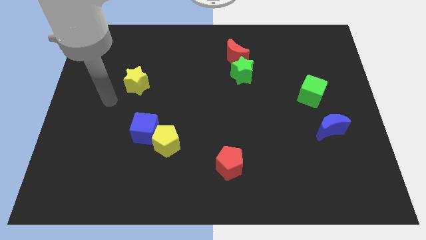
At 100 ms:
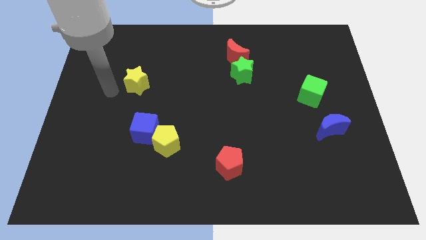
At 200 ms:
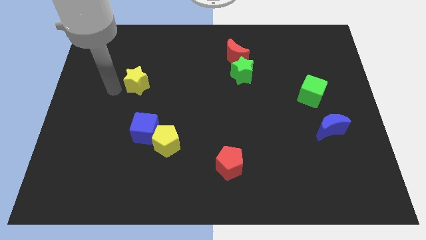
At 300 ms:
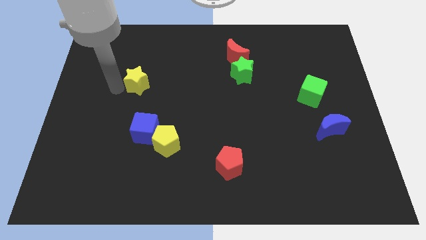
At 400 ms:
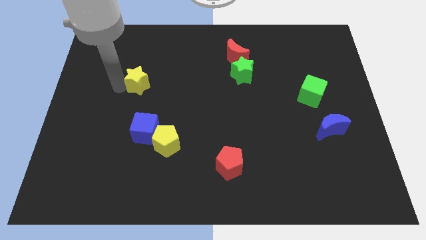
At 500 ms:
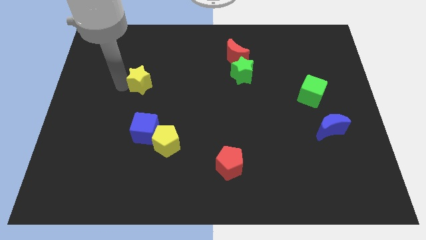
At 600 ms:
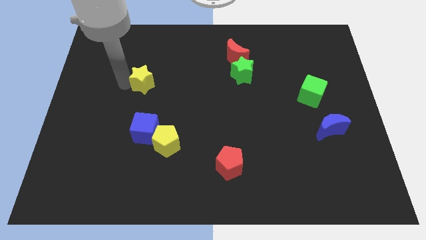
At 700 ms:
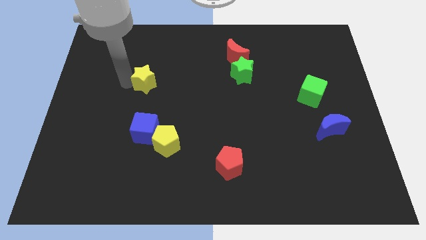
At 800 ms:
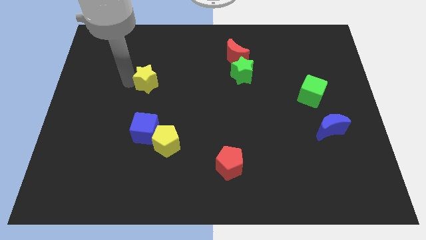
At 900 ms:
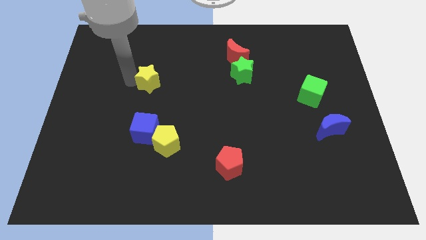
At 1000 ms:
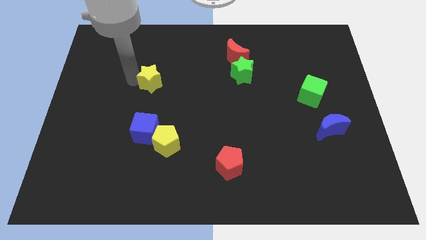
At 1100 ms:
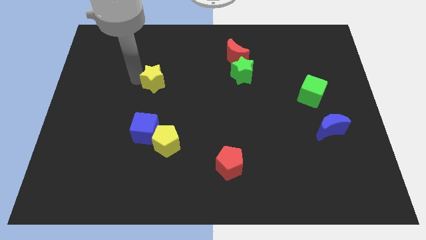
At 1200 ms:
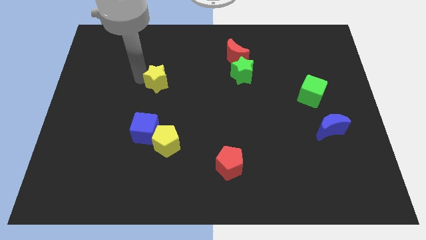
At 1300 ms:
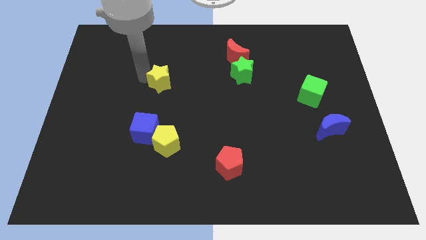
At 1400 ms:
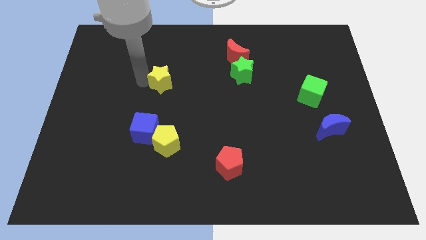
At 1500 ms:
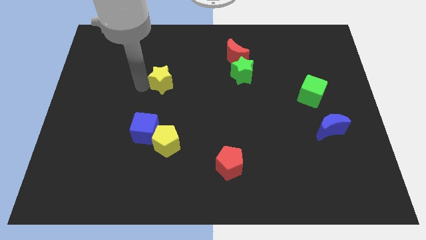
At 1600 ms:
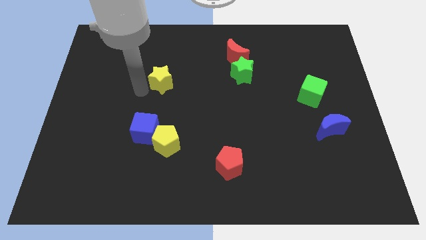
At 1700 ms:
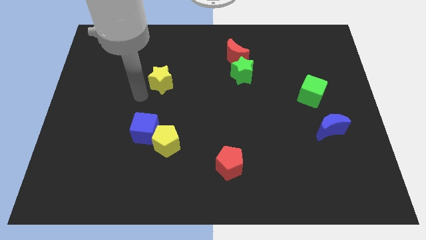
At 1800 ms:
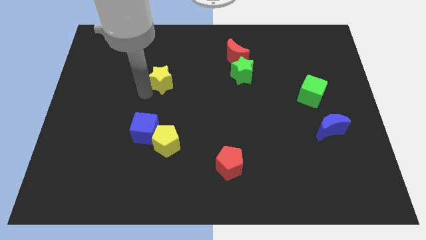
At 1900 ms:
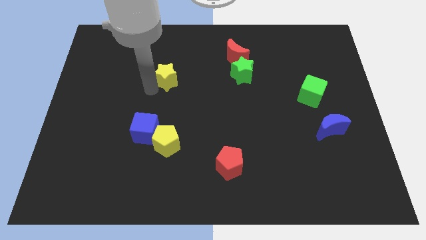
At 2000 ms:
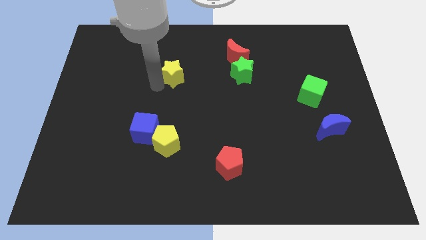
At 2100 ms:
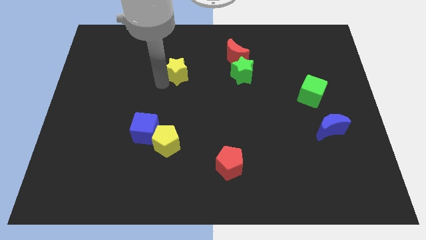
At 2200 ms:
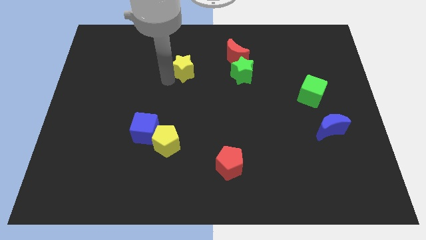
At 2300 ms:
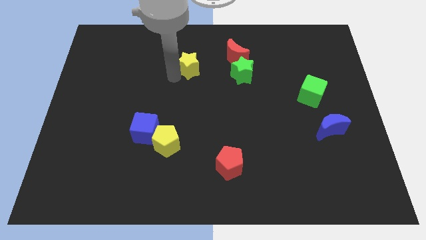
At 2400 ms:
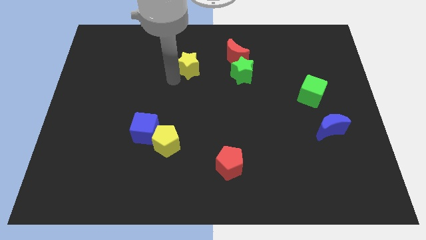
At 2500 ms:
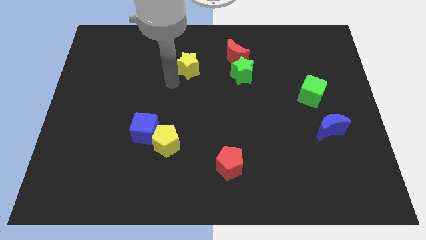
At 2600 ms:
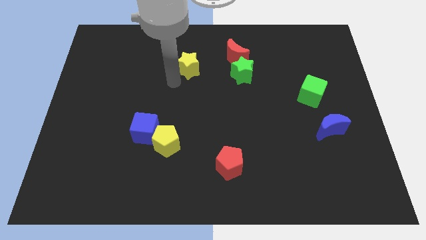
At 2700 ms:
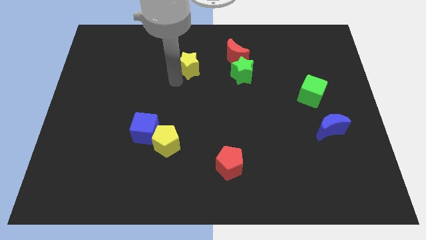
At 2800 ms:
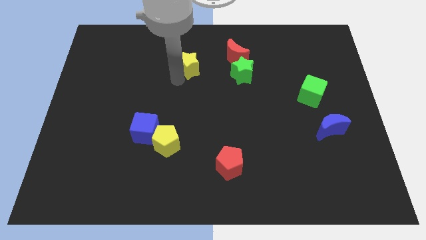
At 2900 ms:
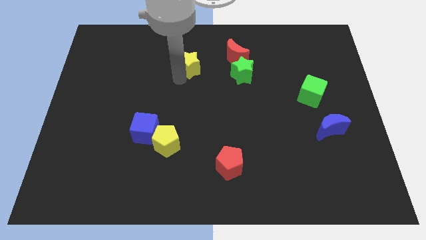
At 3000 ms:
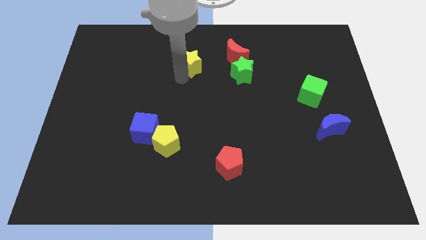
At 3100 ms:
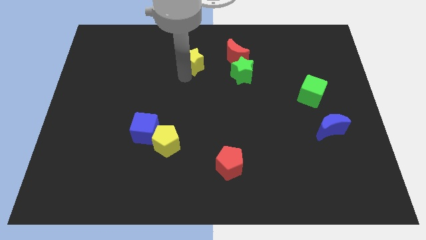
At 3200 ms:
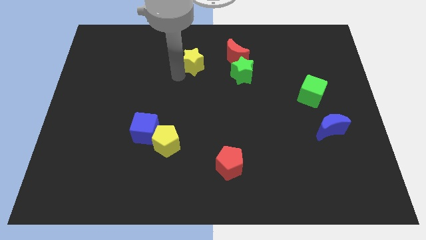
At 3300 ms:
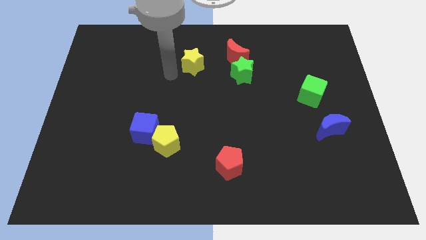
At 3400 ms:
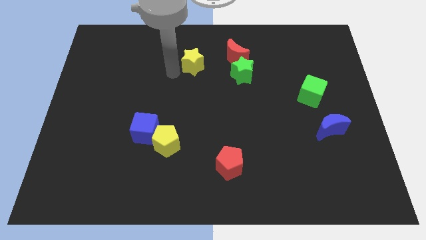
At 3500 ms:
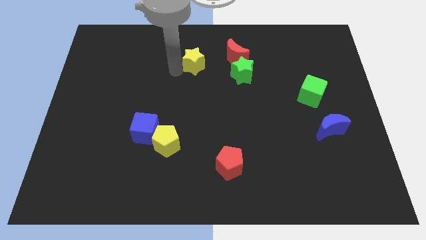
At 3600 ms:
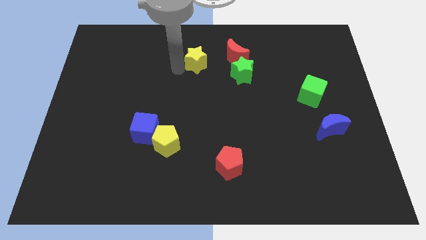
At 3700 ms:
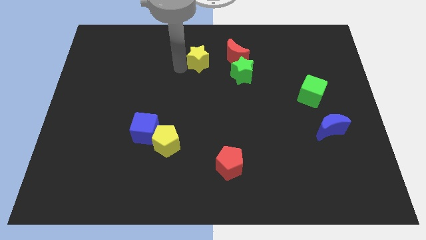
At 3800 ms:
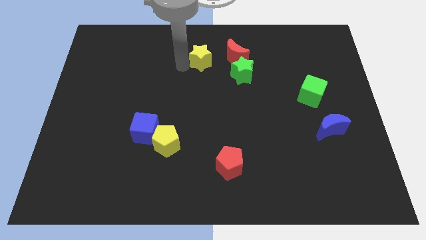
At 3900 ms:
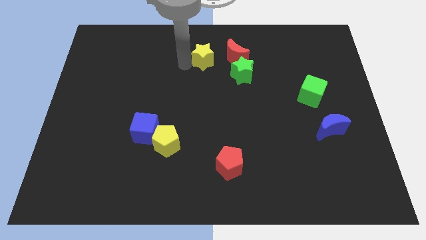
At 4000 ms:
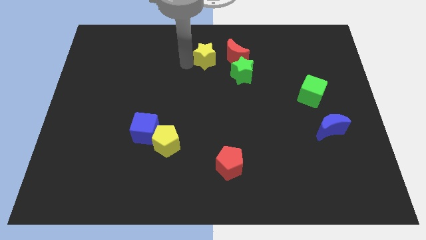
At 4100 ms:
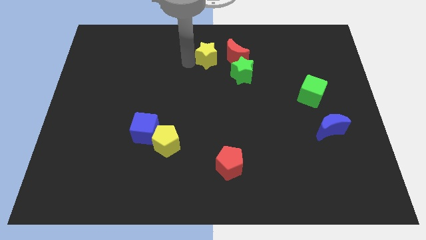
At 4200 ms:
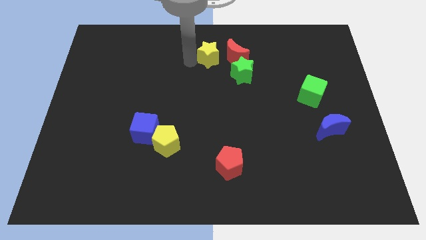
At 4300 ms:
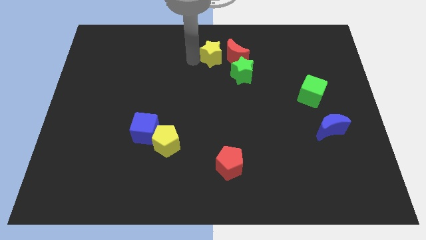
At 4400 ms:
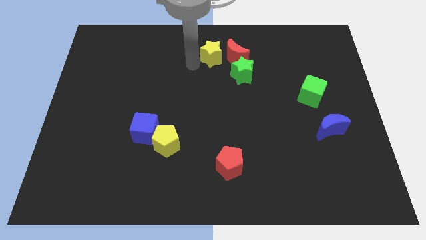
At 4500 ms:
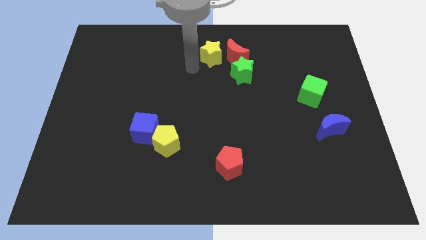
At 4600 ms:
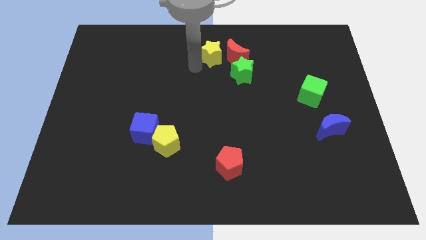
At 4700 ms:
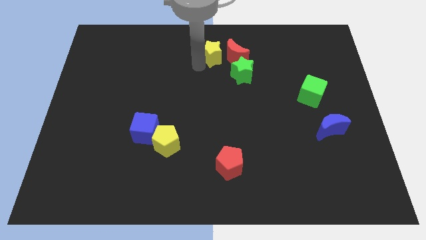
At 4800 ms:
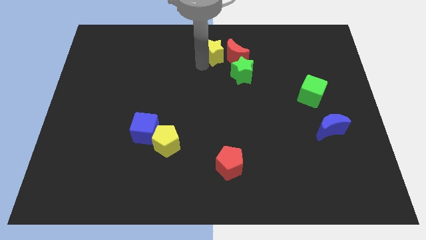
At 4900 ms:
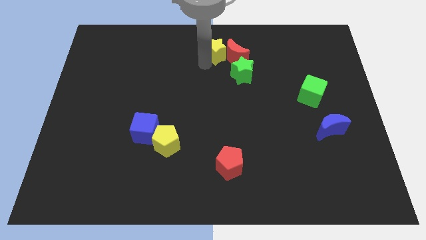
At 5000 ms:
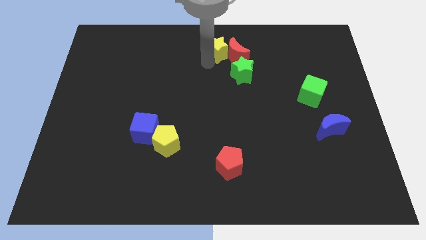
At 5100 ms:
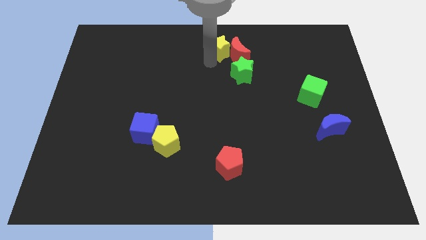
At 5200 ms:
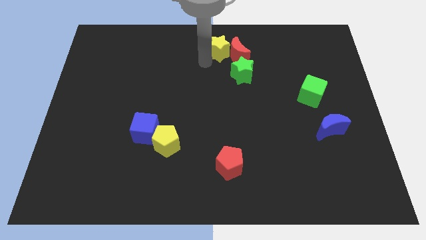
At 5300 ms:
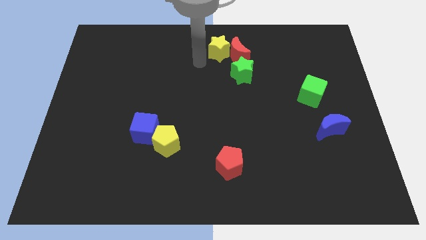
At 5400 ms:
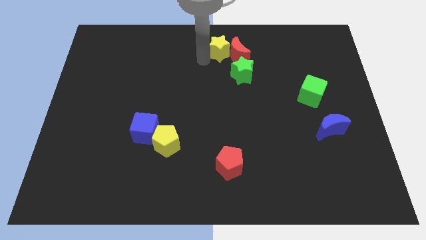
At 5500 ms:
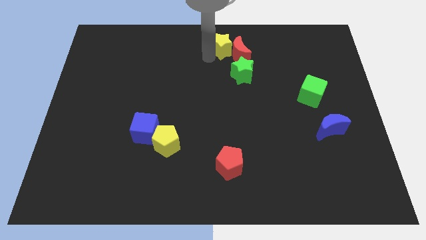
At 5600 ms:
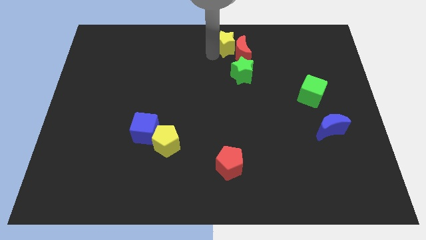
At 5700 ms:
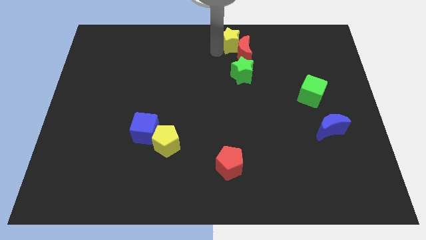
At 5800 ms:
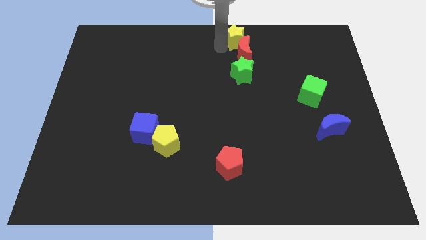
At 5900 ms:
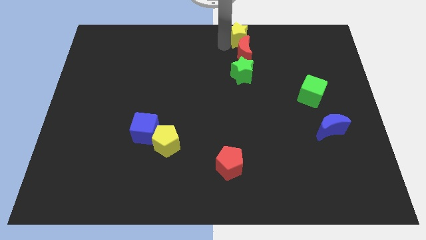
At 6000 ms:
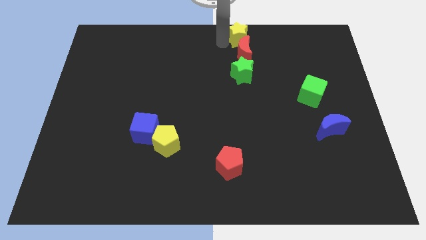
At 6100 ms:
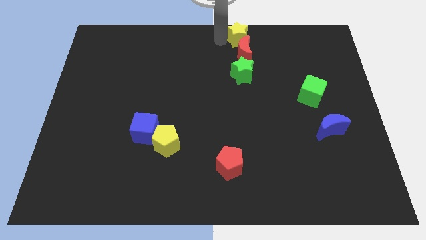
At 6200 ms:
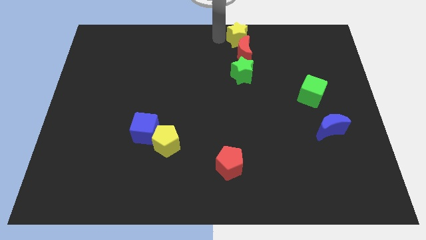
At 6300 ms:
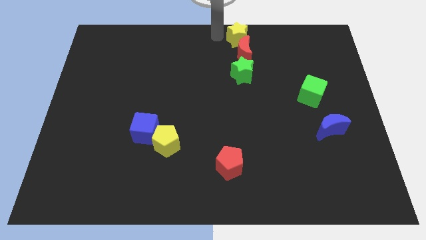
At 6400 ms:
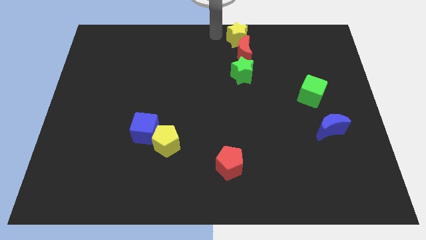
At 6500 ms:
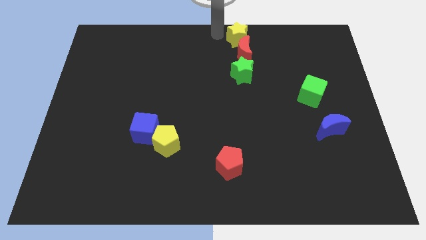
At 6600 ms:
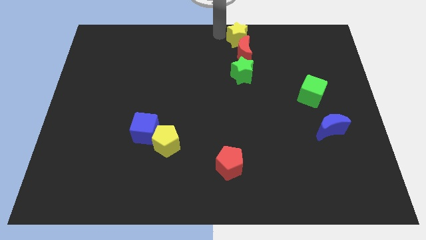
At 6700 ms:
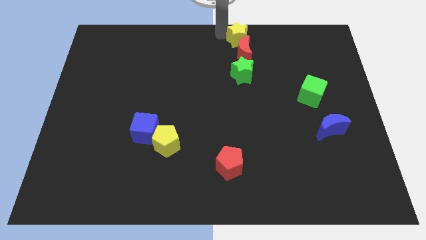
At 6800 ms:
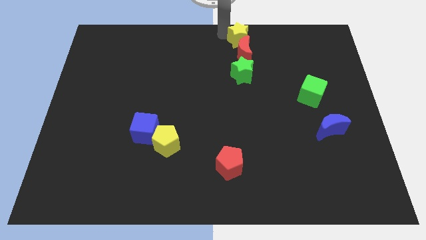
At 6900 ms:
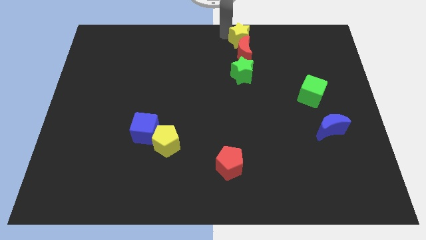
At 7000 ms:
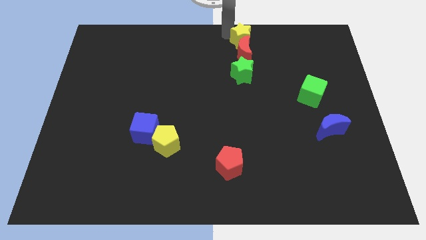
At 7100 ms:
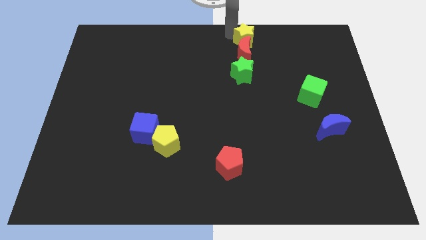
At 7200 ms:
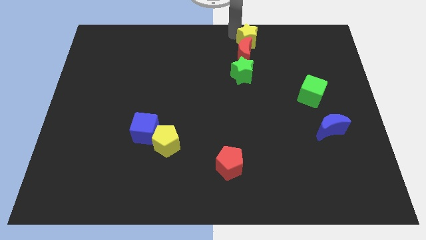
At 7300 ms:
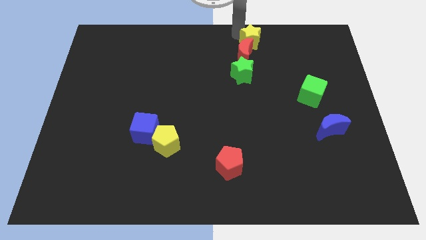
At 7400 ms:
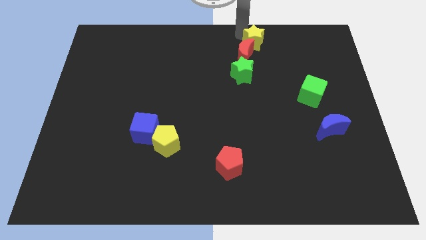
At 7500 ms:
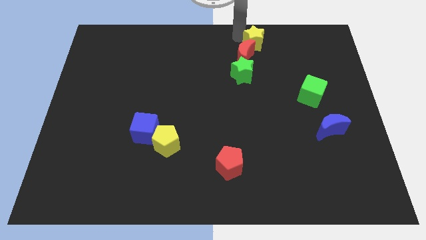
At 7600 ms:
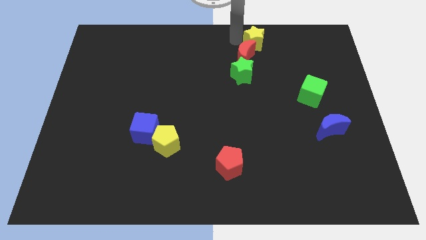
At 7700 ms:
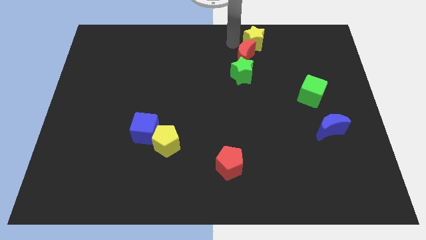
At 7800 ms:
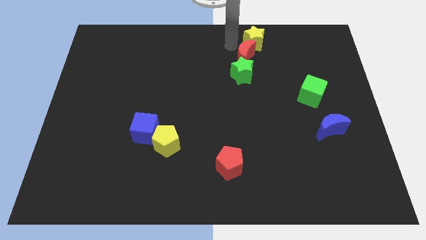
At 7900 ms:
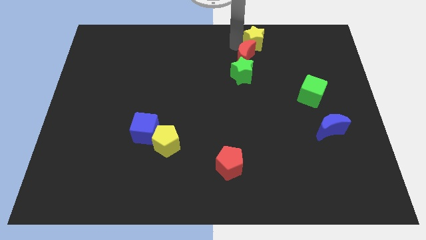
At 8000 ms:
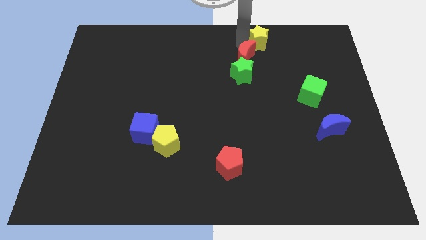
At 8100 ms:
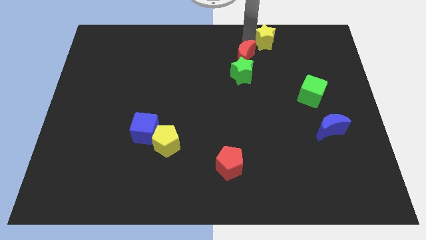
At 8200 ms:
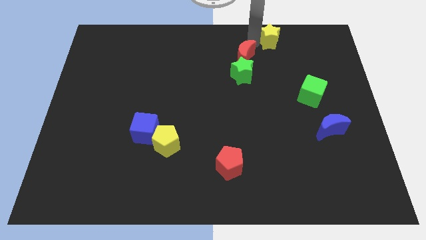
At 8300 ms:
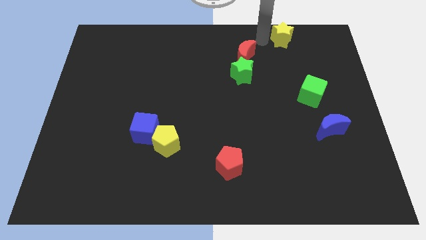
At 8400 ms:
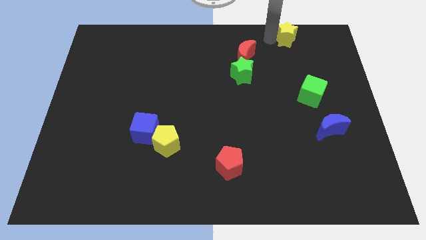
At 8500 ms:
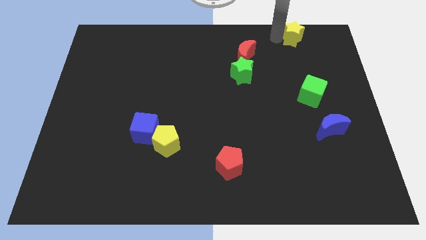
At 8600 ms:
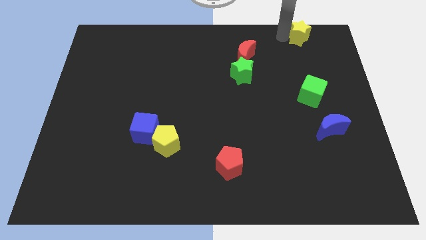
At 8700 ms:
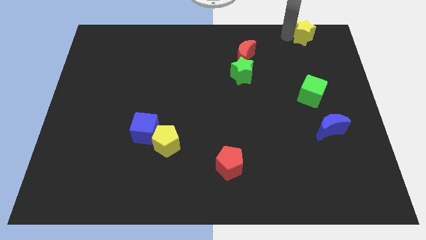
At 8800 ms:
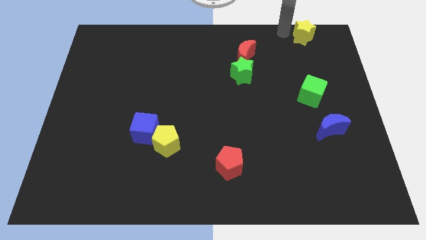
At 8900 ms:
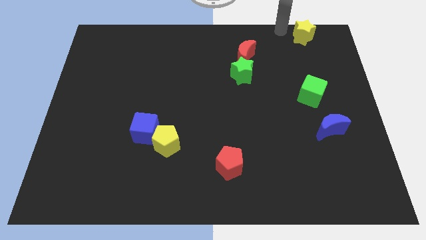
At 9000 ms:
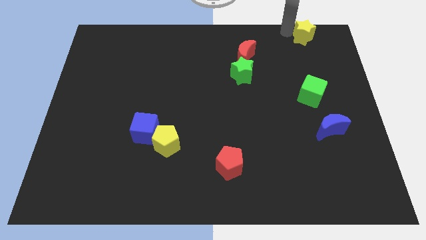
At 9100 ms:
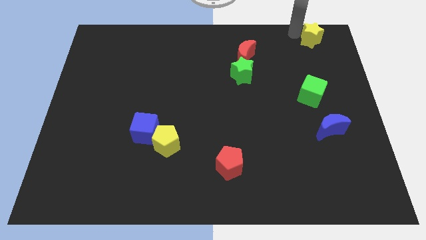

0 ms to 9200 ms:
move the yellow star to the top right
